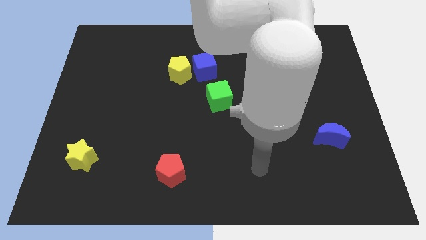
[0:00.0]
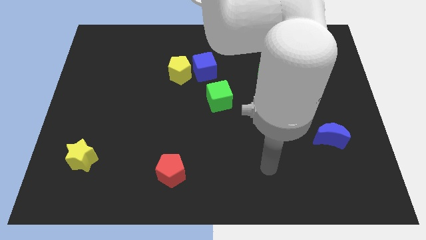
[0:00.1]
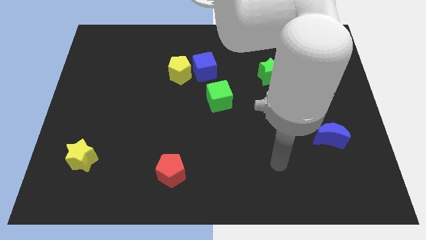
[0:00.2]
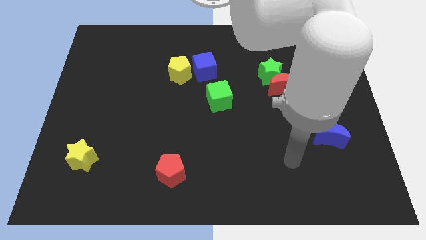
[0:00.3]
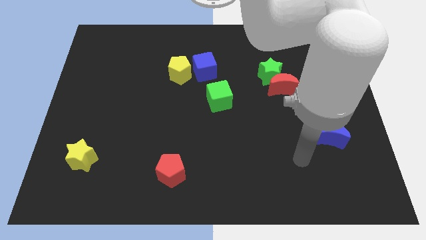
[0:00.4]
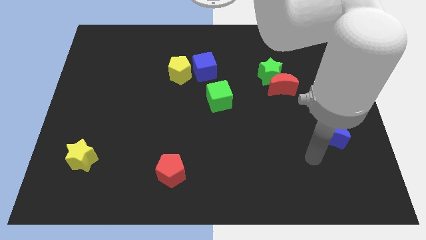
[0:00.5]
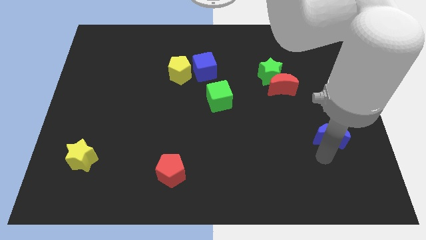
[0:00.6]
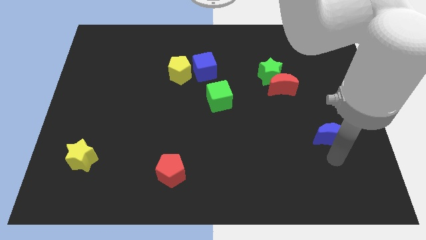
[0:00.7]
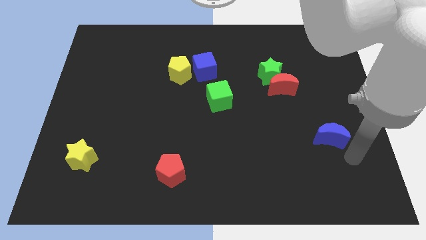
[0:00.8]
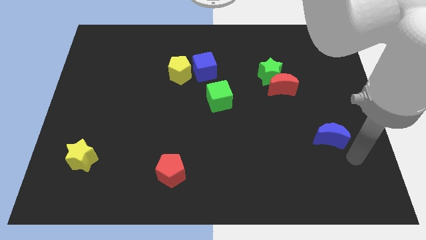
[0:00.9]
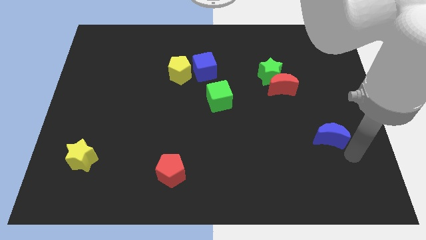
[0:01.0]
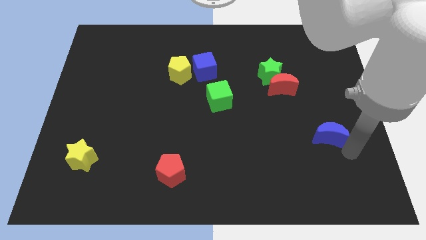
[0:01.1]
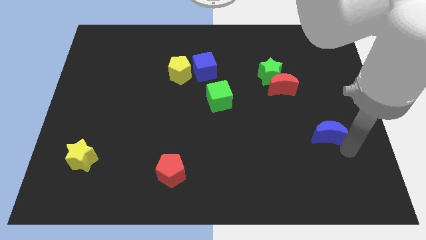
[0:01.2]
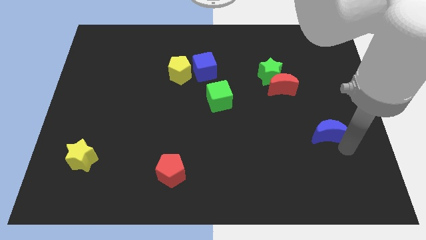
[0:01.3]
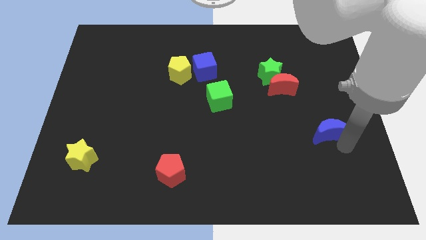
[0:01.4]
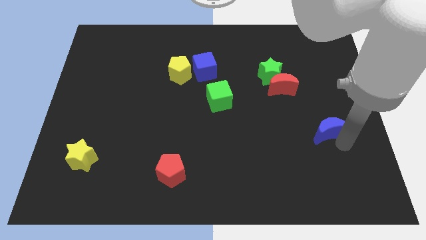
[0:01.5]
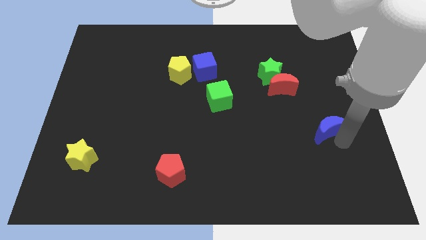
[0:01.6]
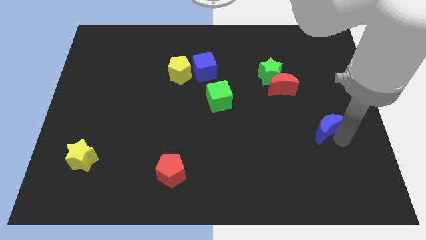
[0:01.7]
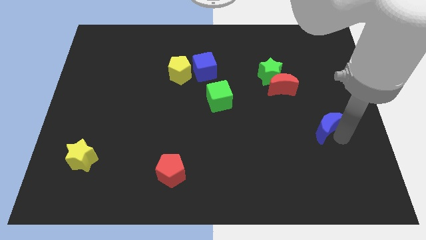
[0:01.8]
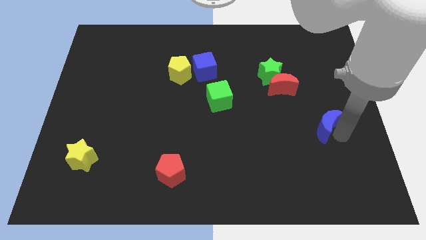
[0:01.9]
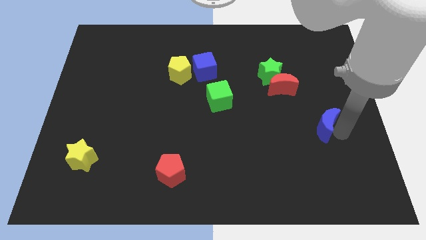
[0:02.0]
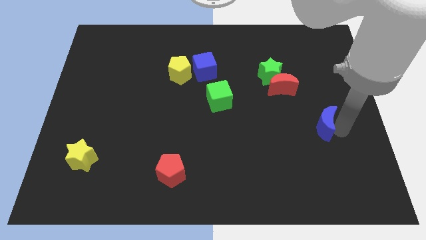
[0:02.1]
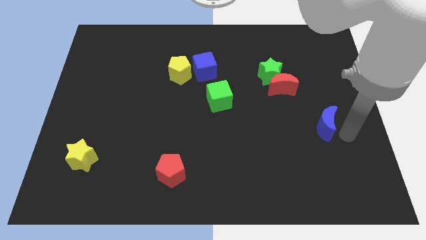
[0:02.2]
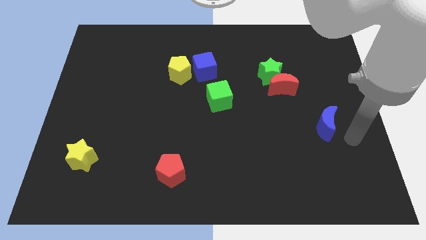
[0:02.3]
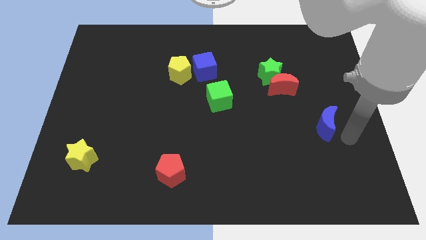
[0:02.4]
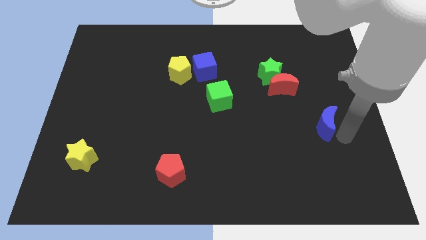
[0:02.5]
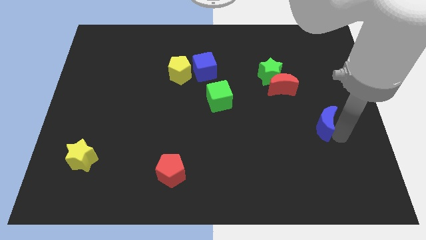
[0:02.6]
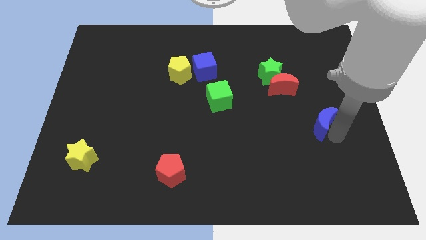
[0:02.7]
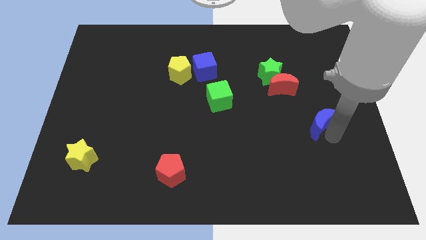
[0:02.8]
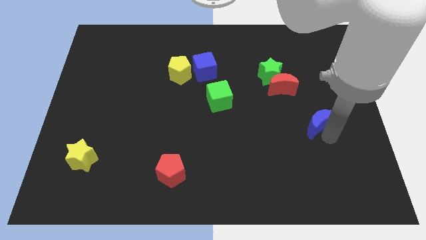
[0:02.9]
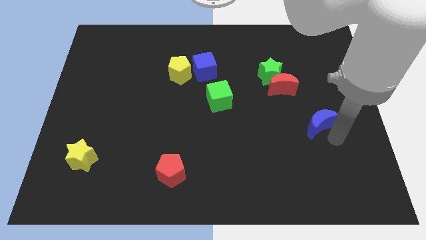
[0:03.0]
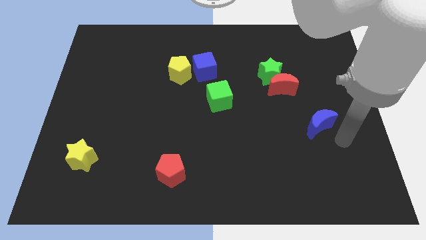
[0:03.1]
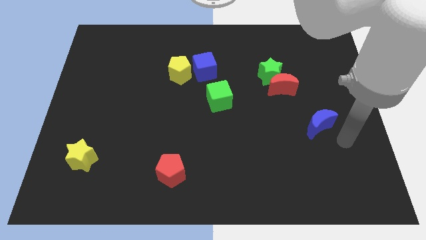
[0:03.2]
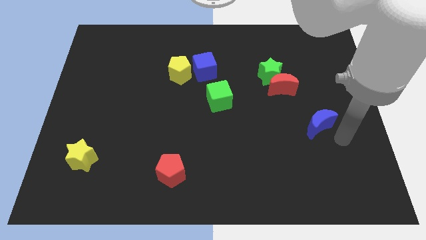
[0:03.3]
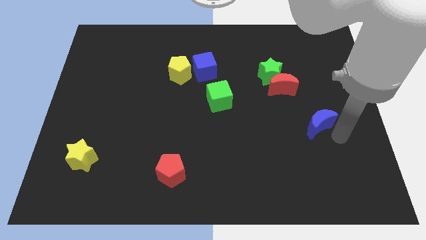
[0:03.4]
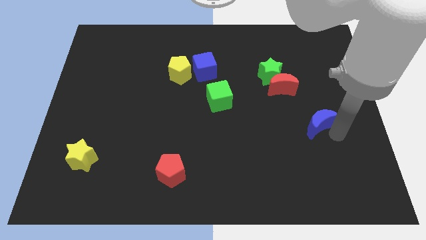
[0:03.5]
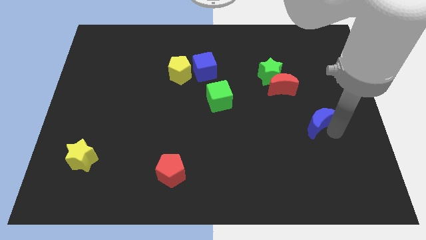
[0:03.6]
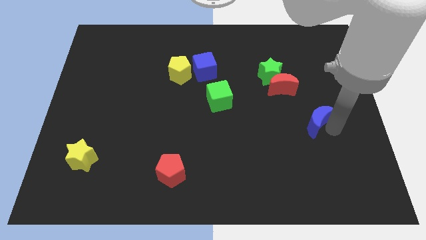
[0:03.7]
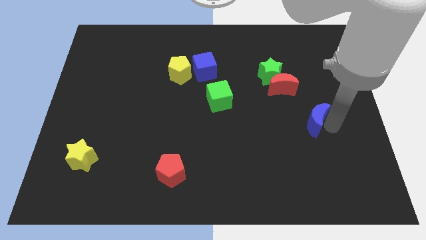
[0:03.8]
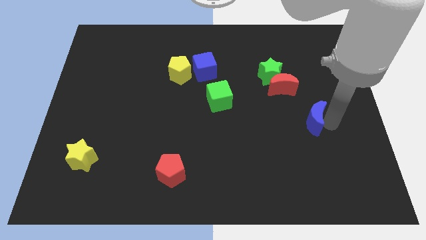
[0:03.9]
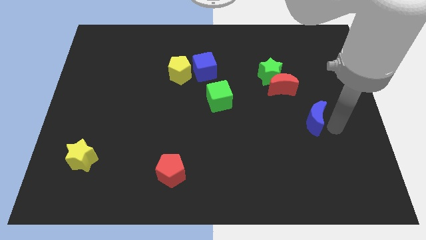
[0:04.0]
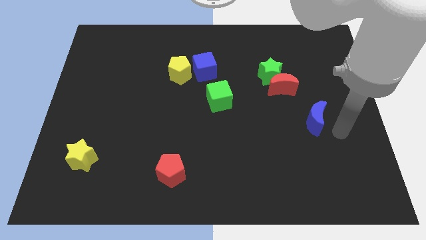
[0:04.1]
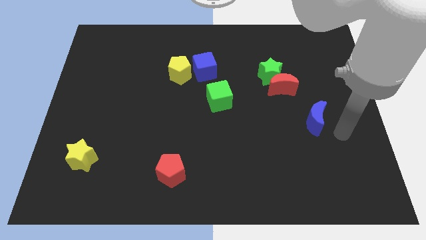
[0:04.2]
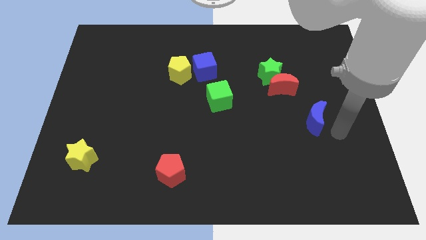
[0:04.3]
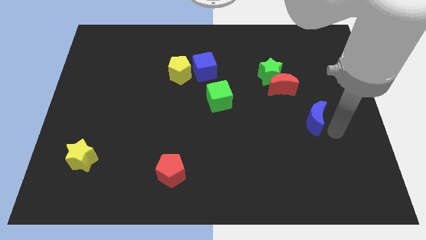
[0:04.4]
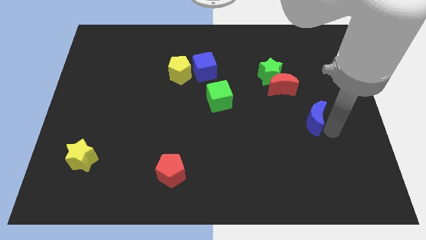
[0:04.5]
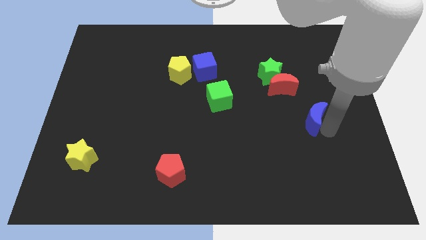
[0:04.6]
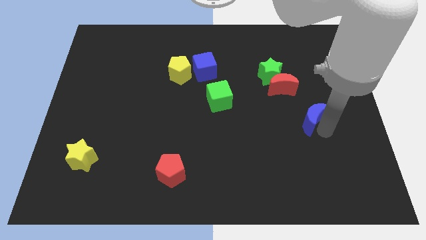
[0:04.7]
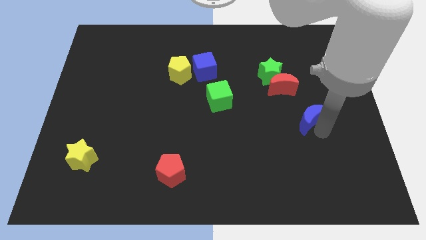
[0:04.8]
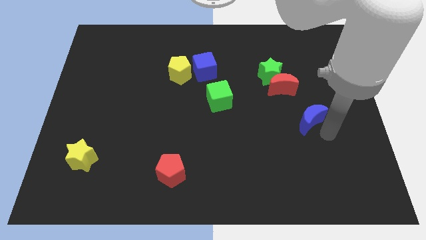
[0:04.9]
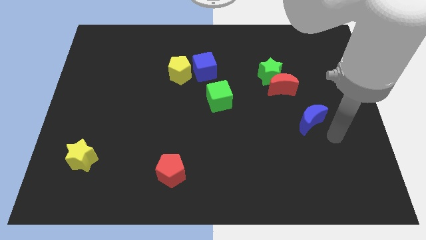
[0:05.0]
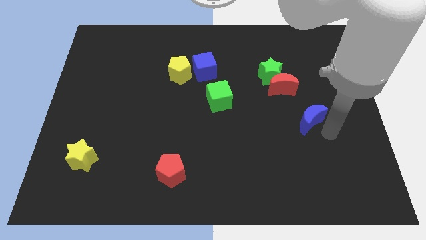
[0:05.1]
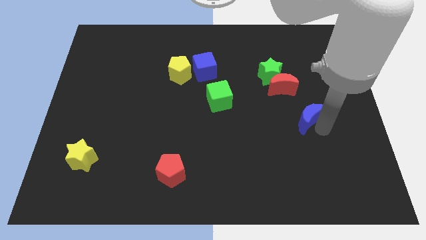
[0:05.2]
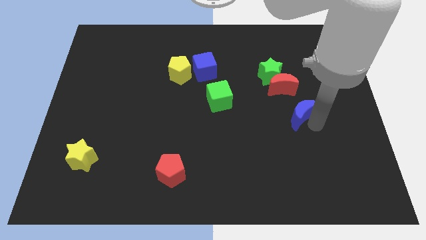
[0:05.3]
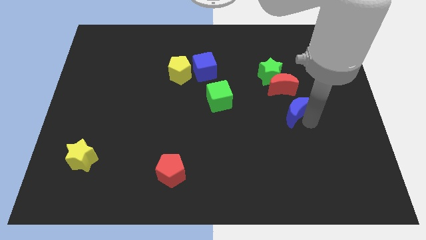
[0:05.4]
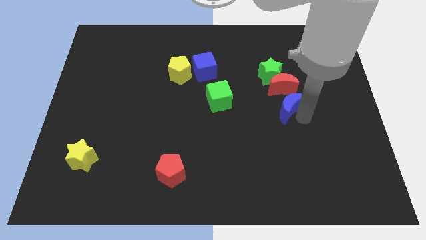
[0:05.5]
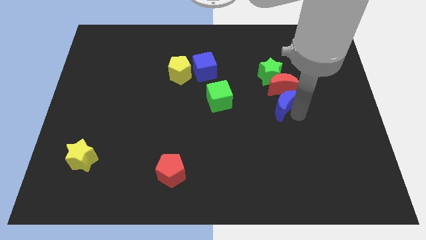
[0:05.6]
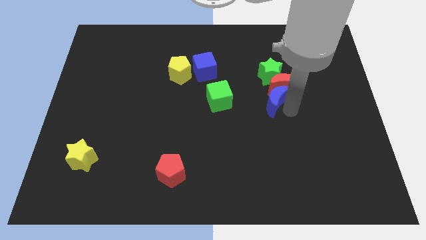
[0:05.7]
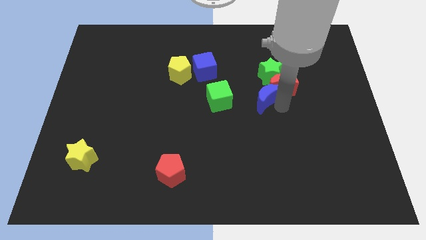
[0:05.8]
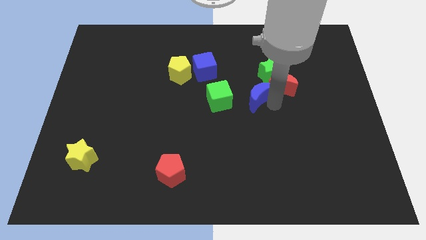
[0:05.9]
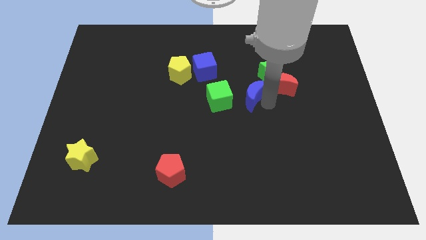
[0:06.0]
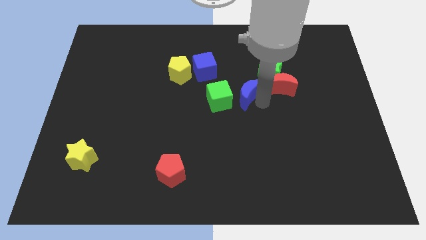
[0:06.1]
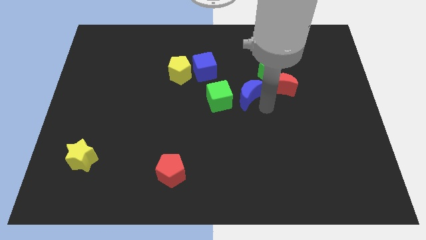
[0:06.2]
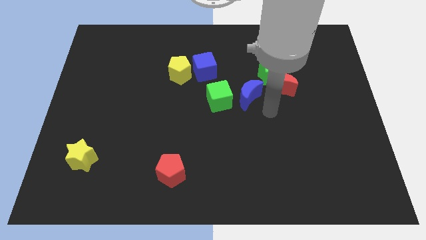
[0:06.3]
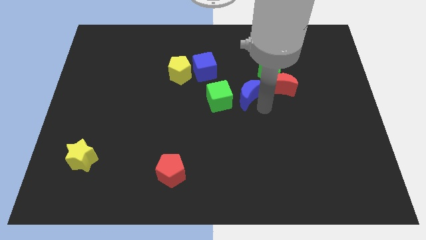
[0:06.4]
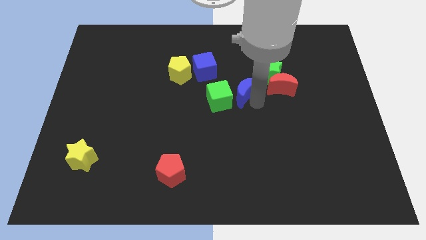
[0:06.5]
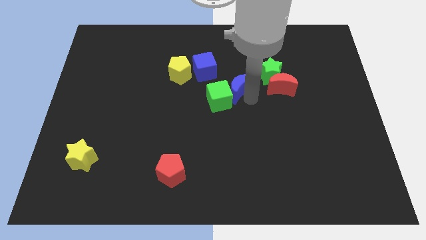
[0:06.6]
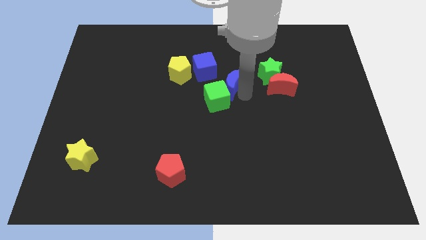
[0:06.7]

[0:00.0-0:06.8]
put the blue moon above the green cube

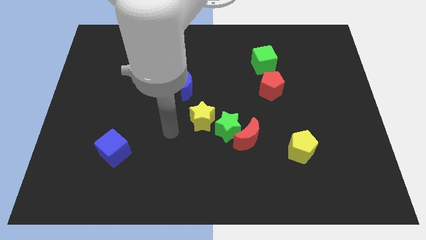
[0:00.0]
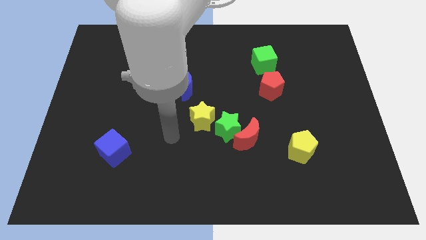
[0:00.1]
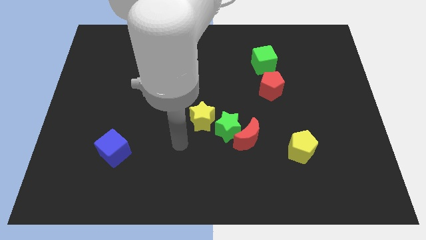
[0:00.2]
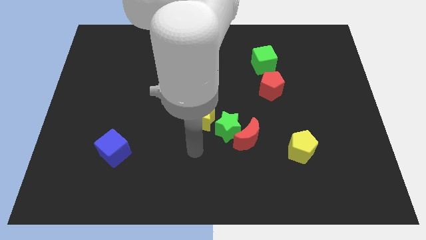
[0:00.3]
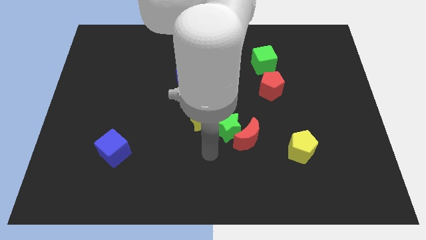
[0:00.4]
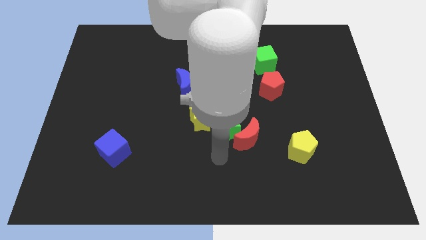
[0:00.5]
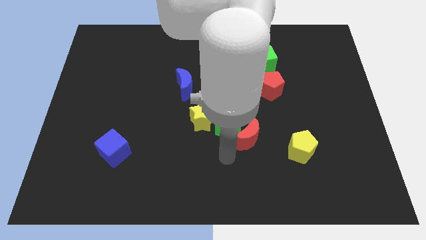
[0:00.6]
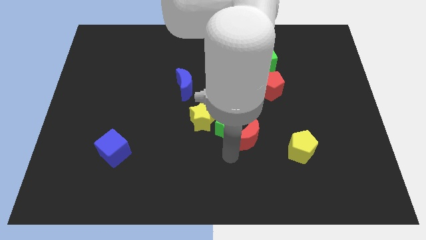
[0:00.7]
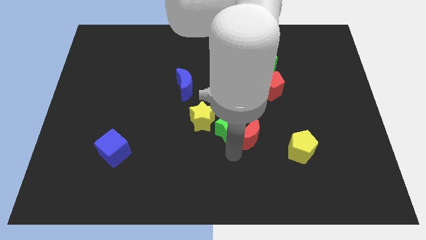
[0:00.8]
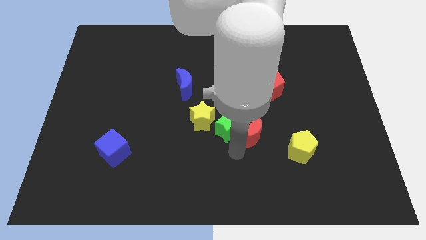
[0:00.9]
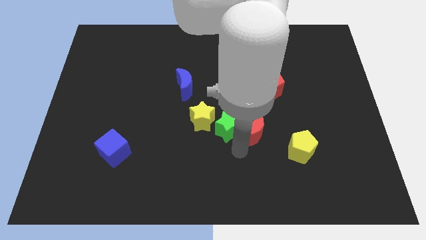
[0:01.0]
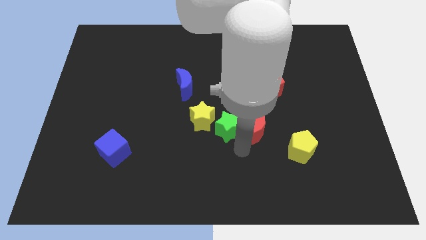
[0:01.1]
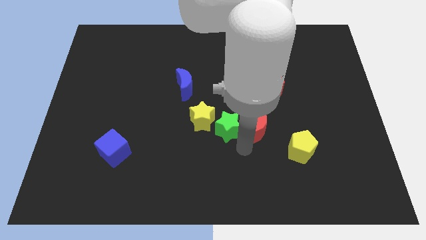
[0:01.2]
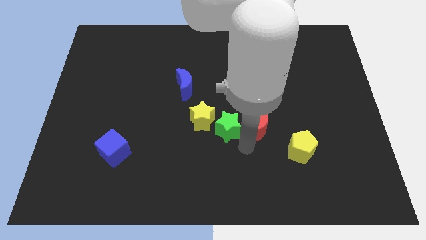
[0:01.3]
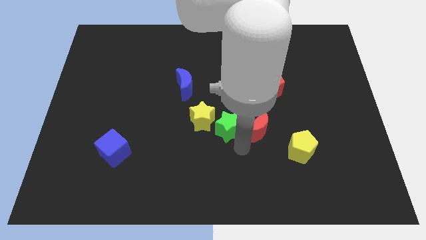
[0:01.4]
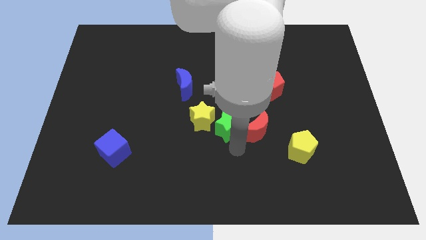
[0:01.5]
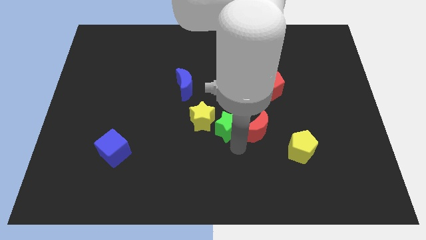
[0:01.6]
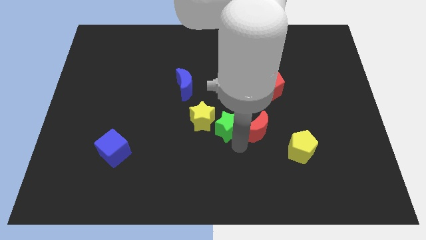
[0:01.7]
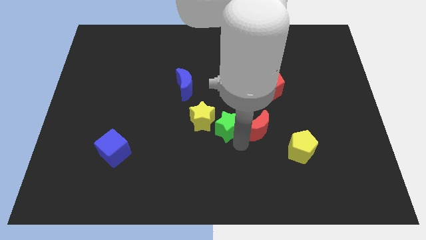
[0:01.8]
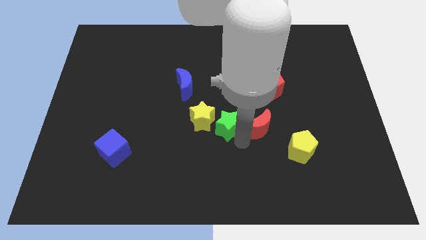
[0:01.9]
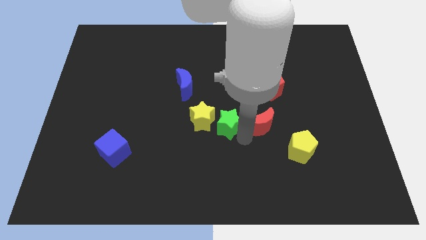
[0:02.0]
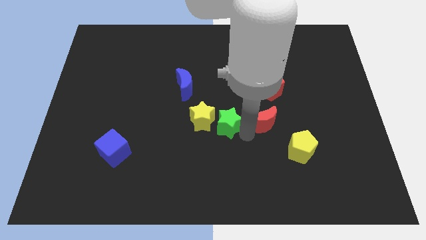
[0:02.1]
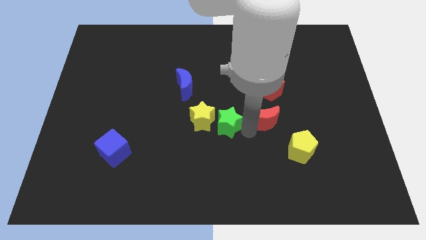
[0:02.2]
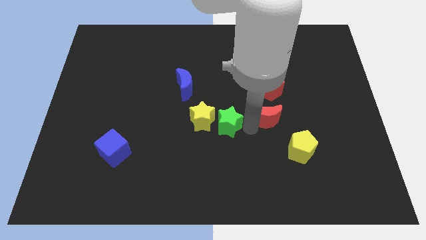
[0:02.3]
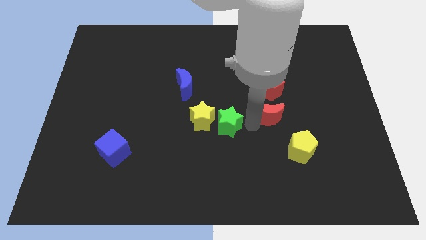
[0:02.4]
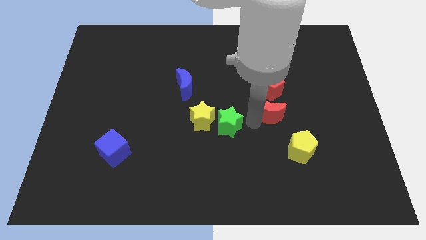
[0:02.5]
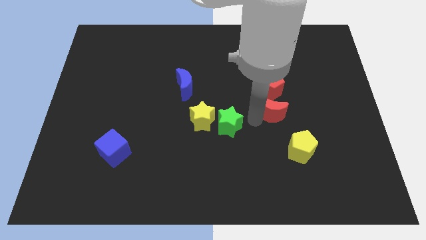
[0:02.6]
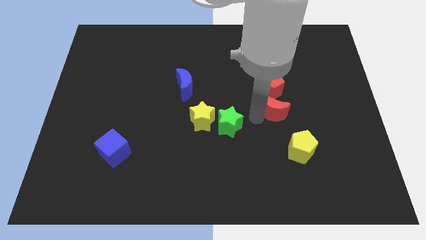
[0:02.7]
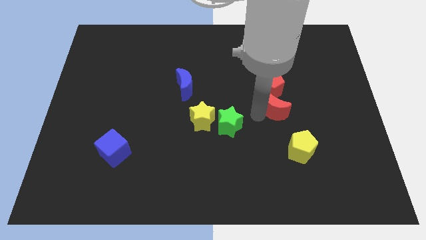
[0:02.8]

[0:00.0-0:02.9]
move the red moon diagonally down and to the right of the red pentagon
